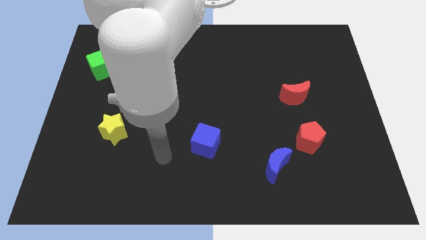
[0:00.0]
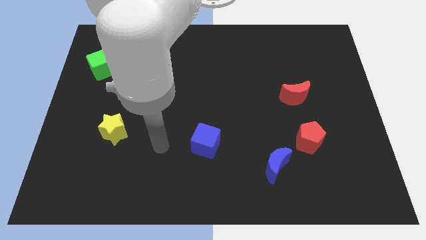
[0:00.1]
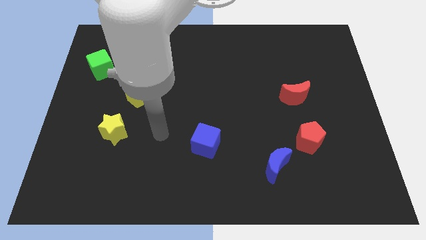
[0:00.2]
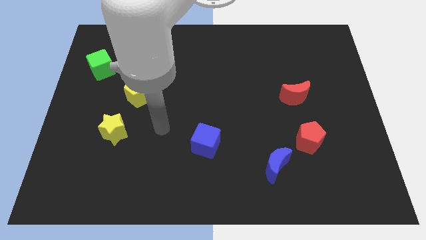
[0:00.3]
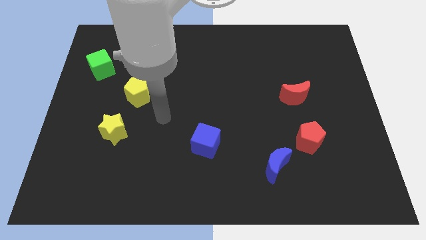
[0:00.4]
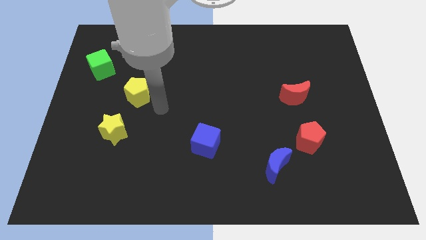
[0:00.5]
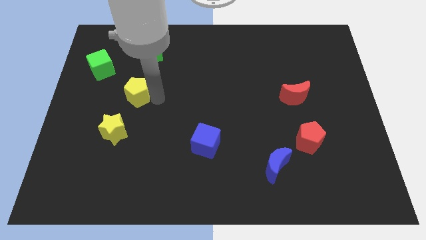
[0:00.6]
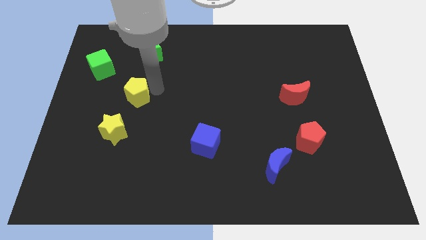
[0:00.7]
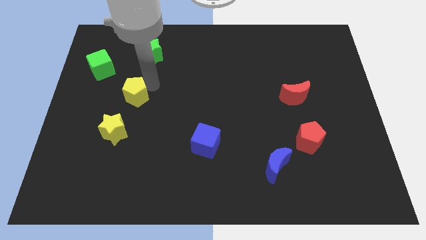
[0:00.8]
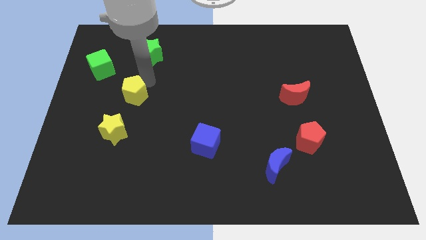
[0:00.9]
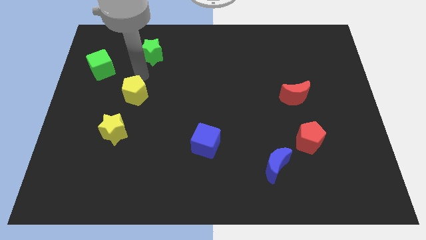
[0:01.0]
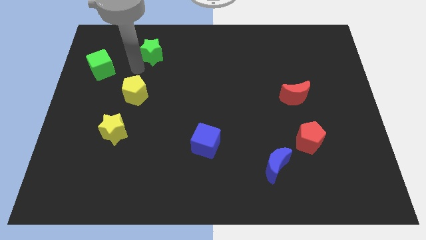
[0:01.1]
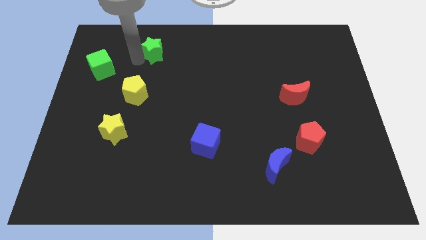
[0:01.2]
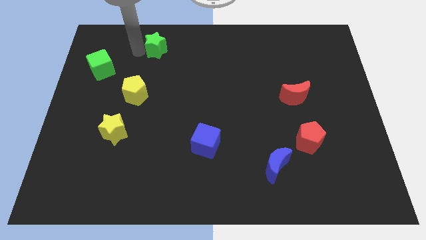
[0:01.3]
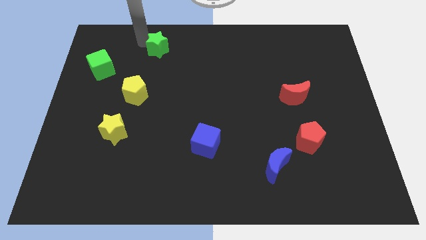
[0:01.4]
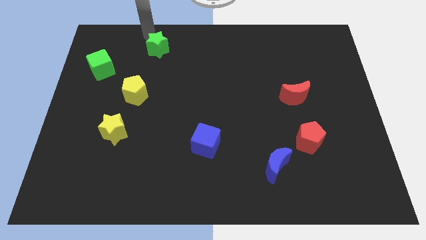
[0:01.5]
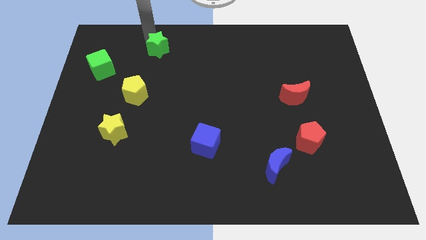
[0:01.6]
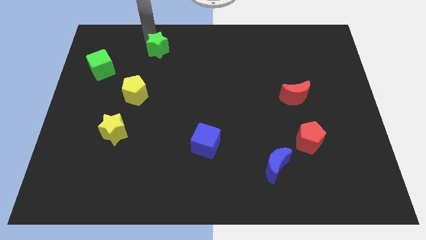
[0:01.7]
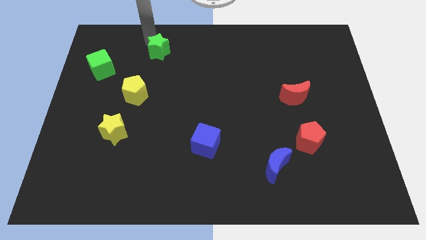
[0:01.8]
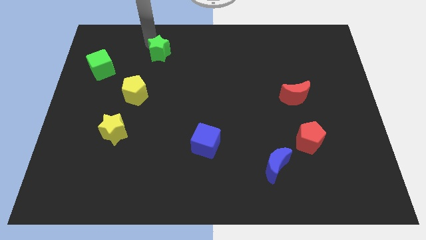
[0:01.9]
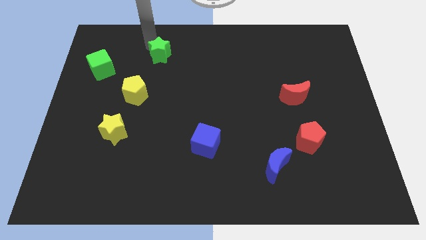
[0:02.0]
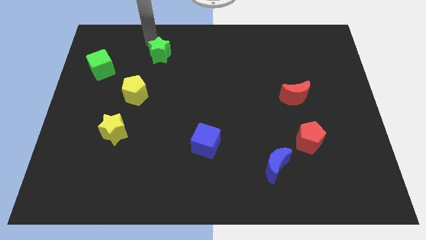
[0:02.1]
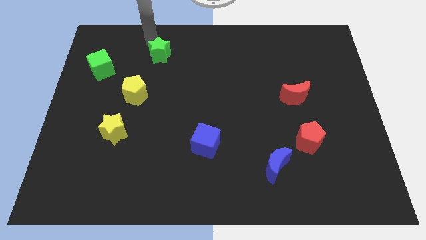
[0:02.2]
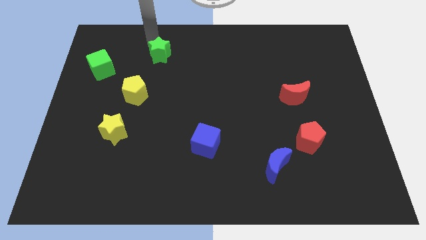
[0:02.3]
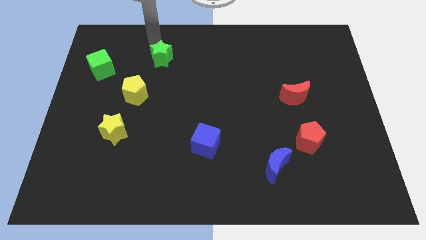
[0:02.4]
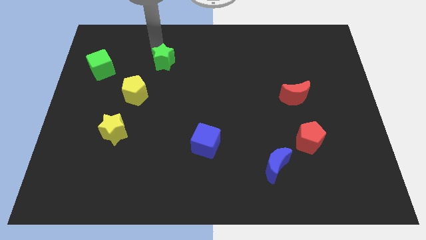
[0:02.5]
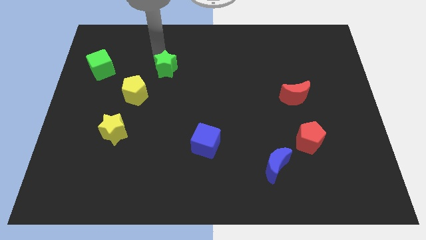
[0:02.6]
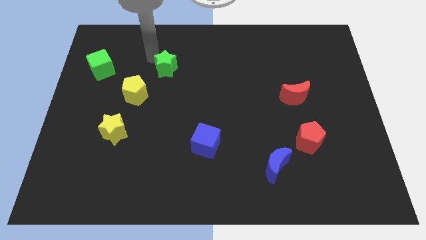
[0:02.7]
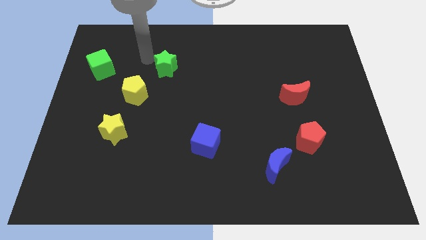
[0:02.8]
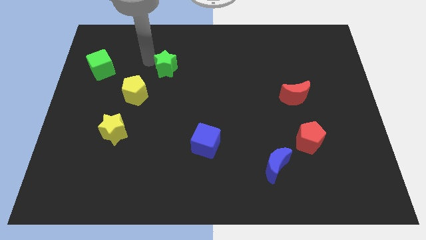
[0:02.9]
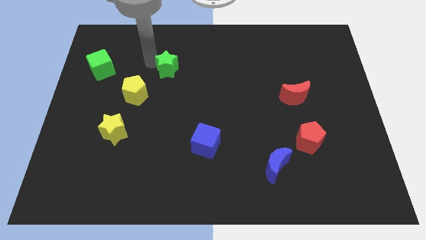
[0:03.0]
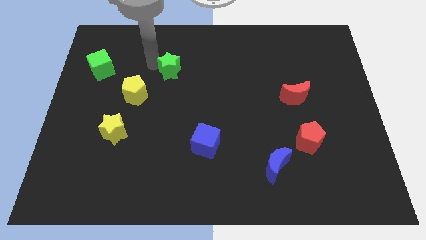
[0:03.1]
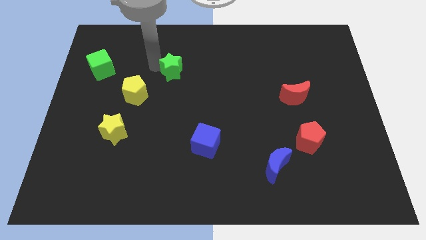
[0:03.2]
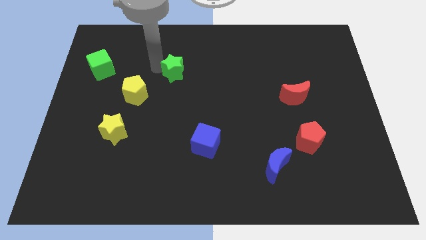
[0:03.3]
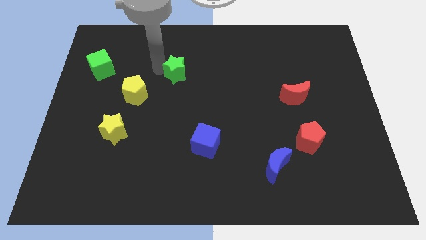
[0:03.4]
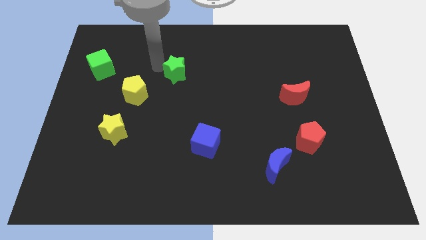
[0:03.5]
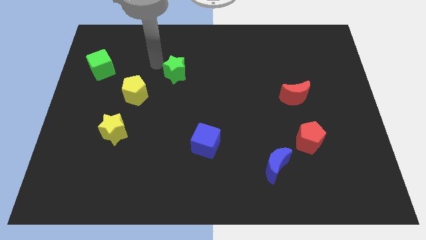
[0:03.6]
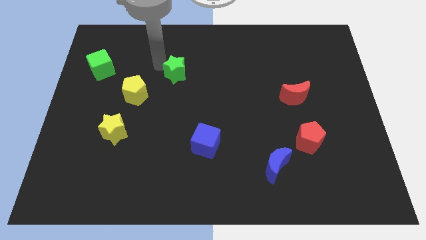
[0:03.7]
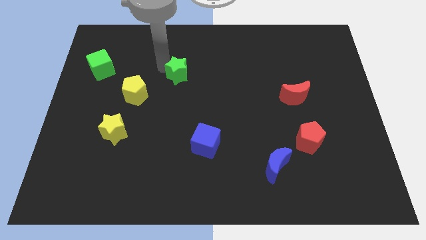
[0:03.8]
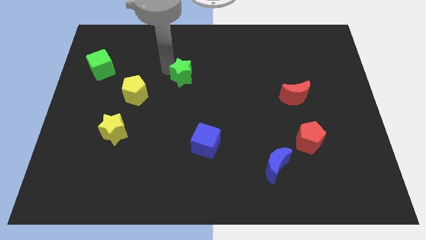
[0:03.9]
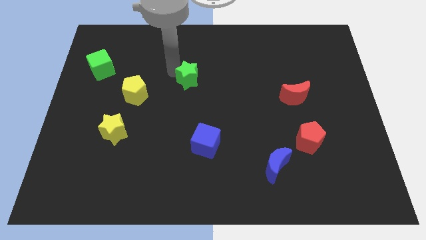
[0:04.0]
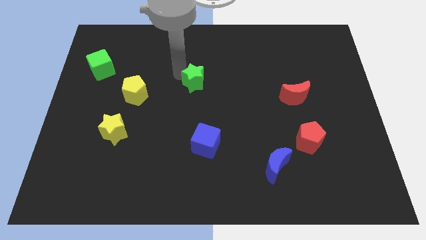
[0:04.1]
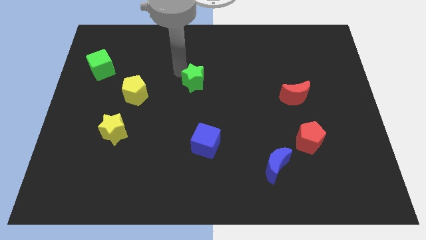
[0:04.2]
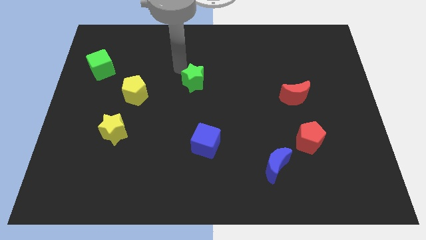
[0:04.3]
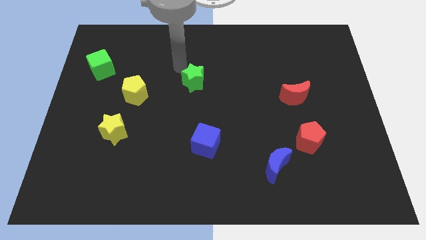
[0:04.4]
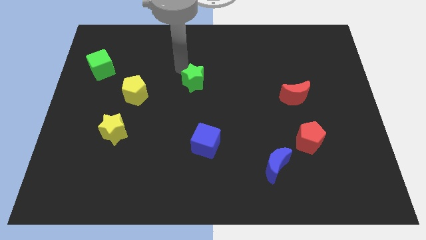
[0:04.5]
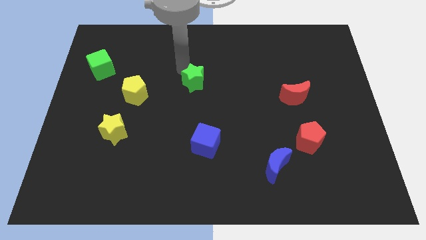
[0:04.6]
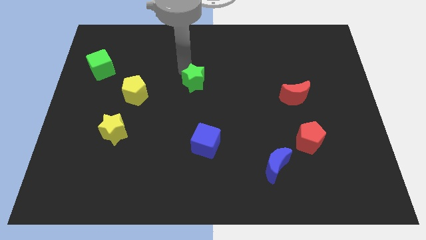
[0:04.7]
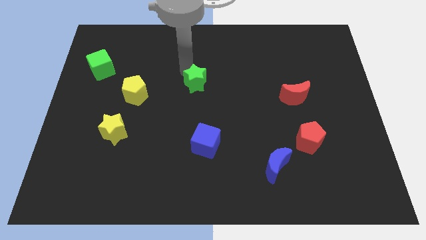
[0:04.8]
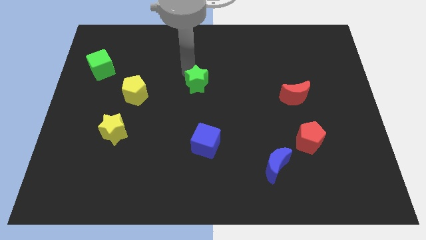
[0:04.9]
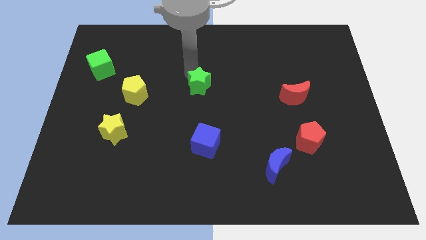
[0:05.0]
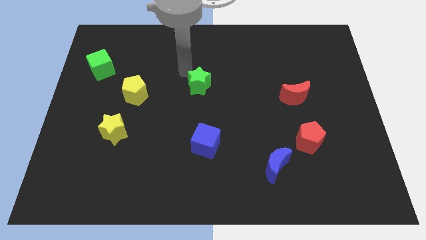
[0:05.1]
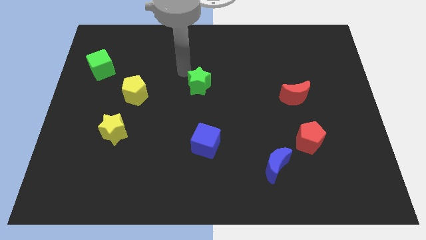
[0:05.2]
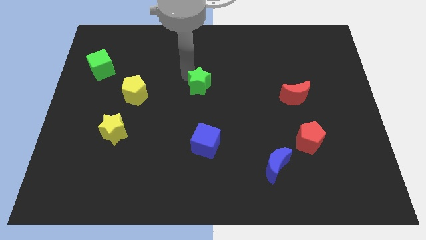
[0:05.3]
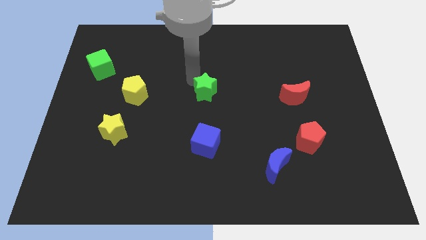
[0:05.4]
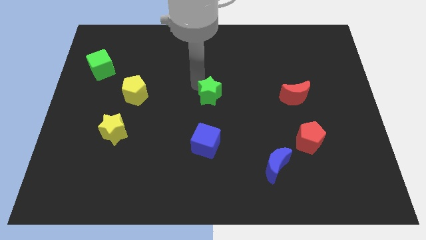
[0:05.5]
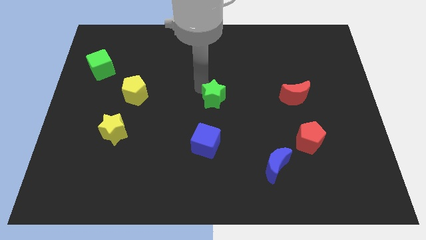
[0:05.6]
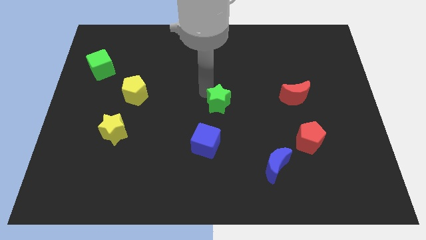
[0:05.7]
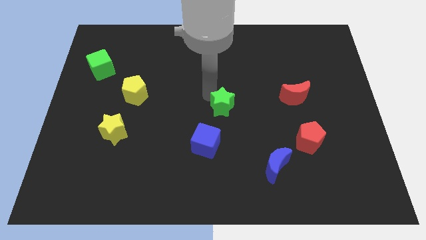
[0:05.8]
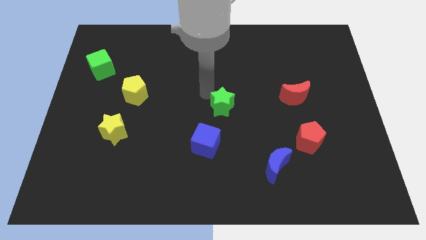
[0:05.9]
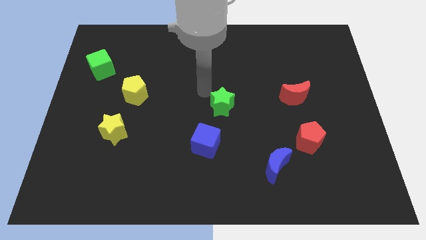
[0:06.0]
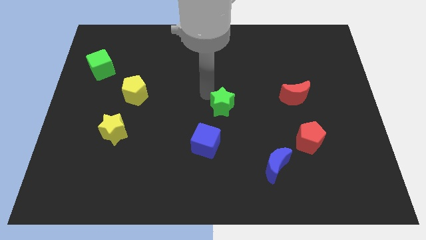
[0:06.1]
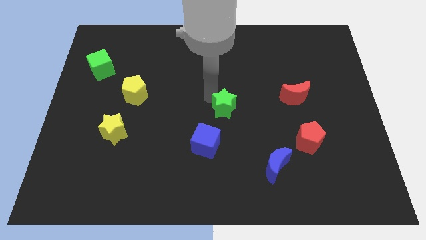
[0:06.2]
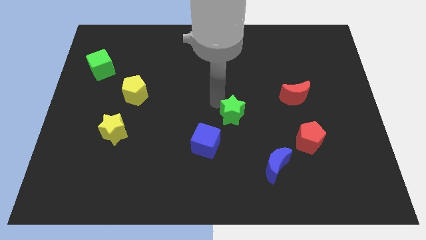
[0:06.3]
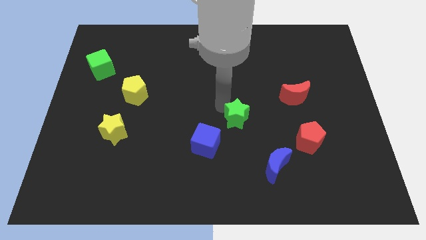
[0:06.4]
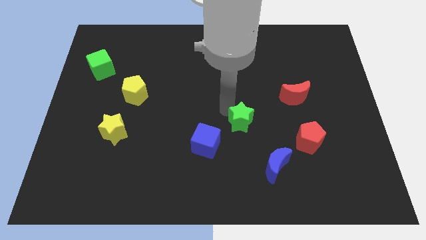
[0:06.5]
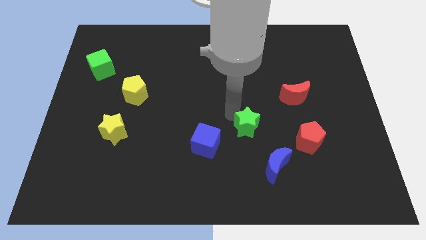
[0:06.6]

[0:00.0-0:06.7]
slide the green star left of the red pentagon
